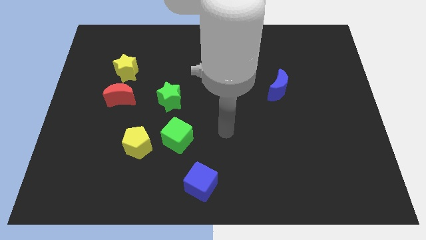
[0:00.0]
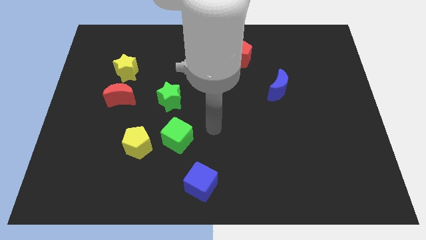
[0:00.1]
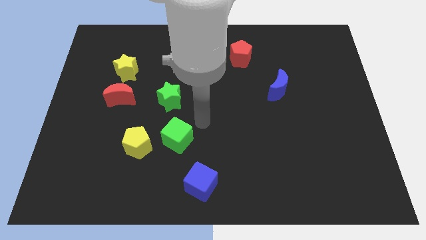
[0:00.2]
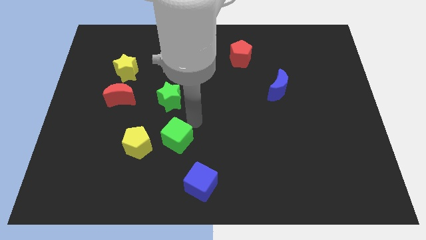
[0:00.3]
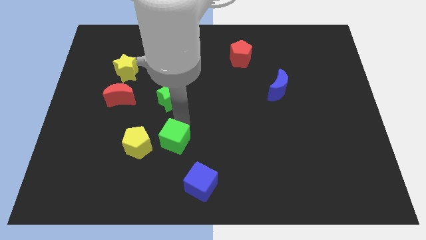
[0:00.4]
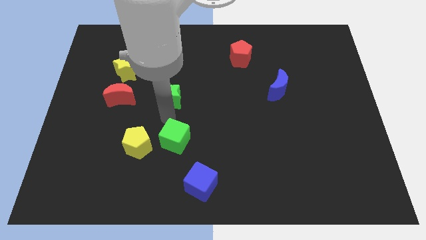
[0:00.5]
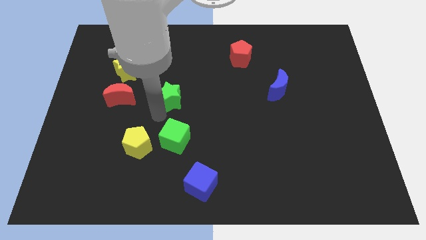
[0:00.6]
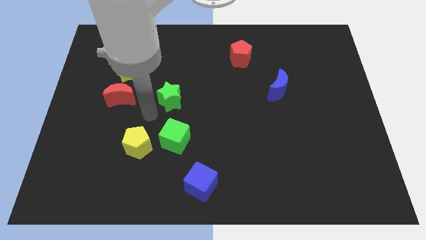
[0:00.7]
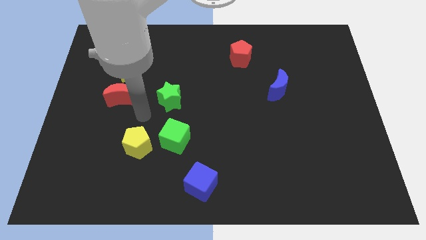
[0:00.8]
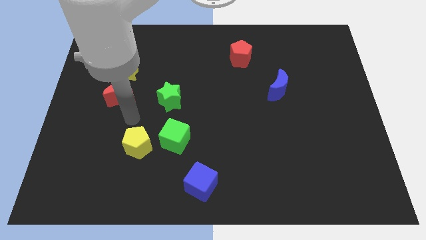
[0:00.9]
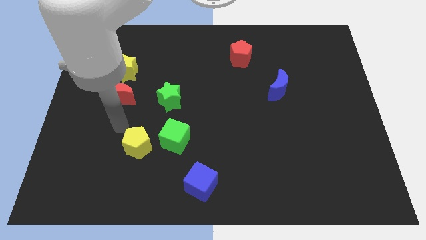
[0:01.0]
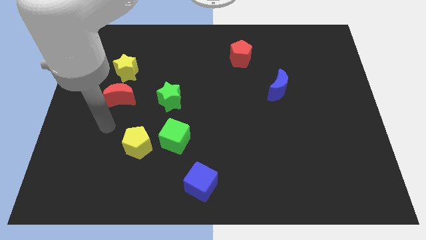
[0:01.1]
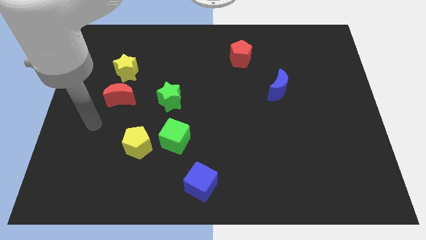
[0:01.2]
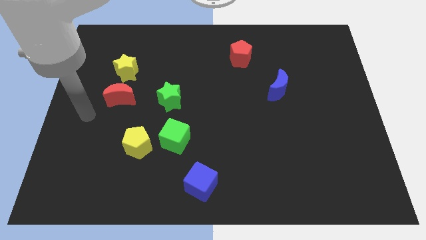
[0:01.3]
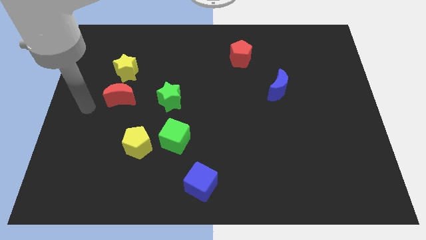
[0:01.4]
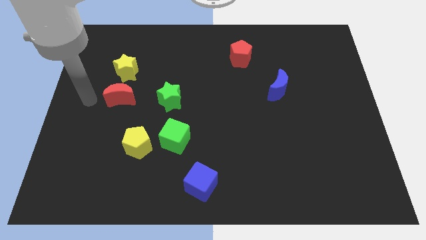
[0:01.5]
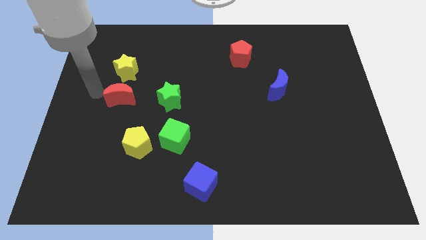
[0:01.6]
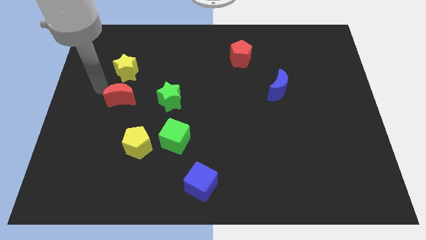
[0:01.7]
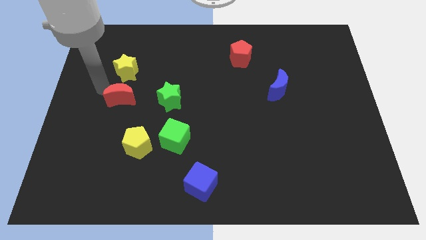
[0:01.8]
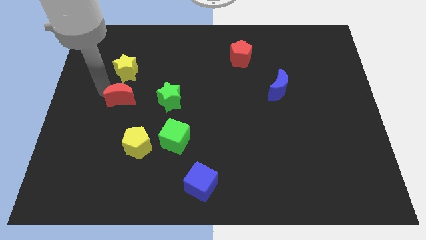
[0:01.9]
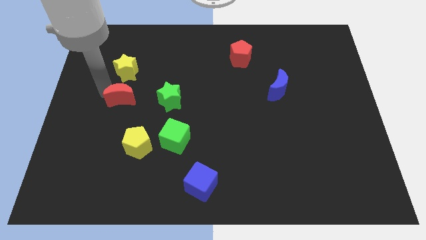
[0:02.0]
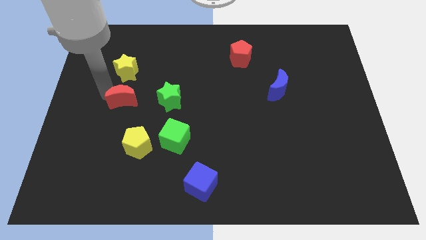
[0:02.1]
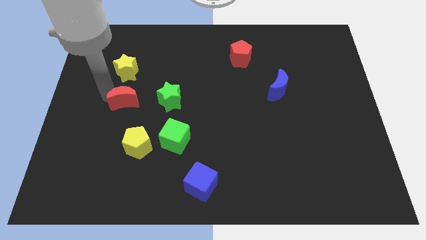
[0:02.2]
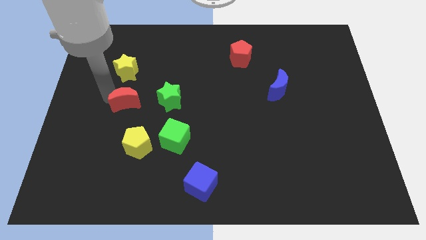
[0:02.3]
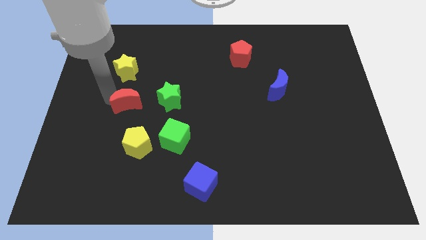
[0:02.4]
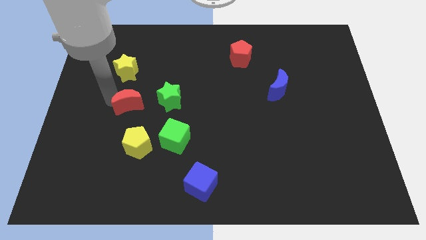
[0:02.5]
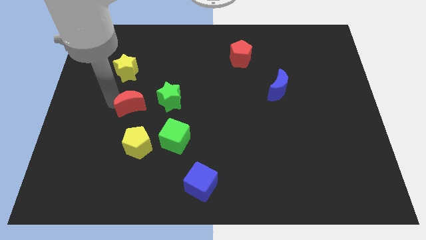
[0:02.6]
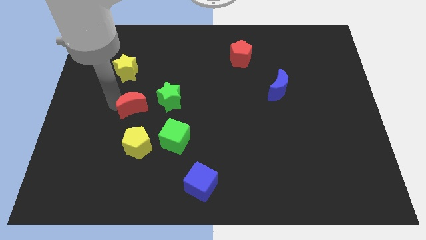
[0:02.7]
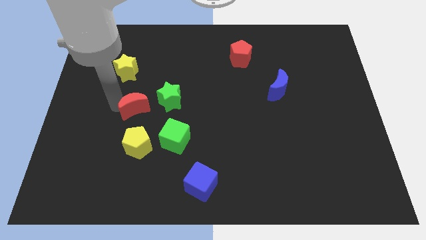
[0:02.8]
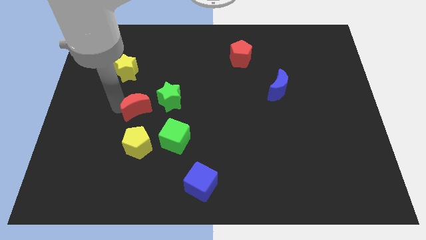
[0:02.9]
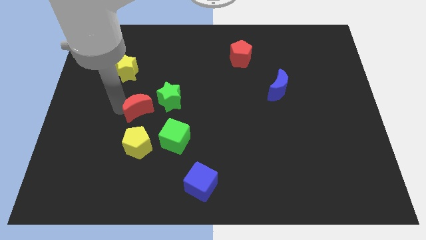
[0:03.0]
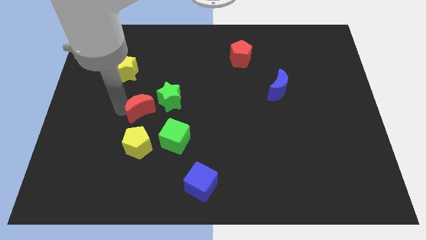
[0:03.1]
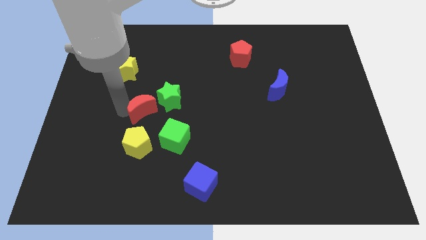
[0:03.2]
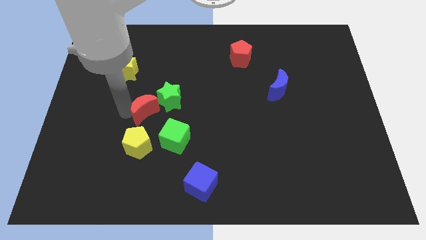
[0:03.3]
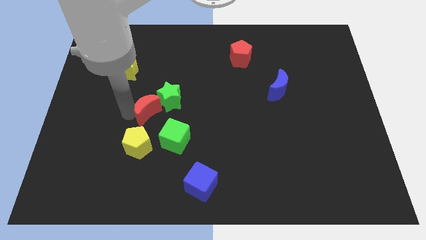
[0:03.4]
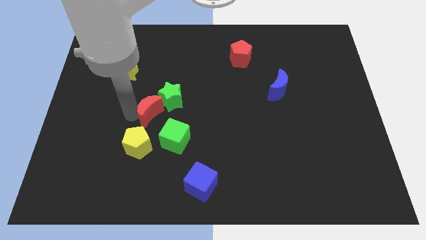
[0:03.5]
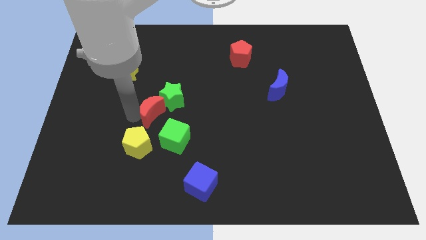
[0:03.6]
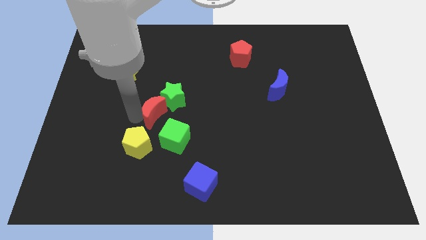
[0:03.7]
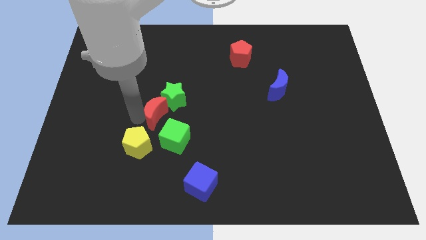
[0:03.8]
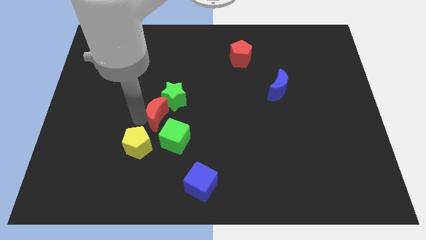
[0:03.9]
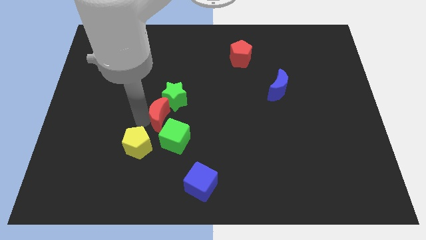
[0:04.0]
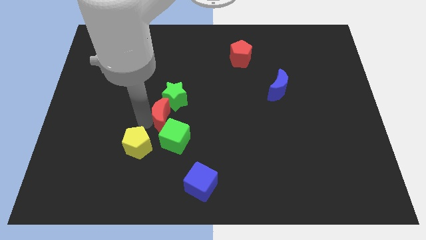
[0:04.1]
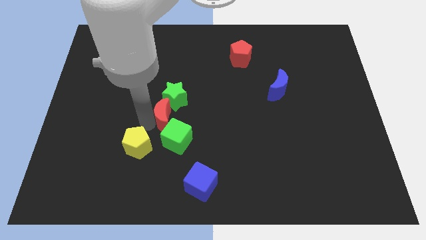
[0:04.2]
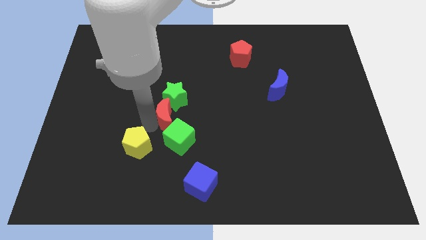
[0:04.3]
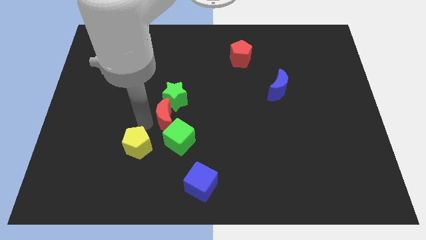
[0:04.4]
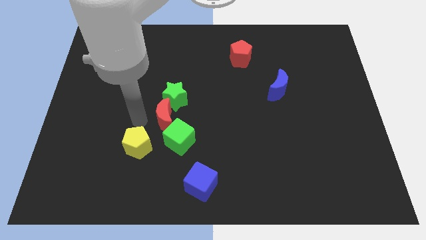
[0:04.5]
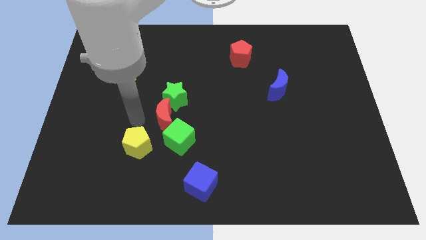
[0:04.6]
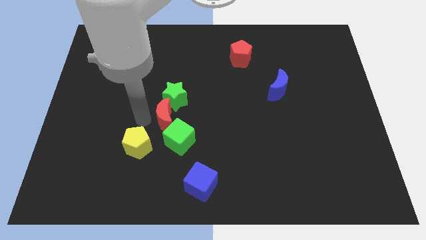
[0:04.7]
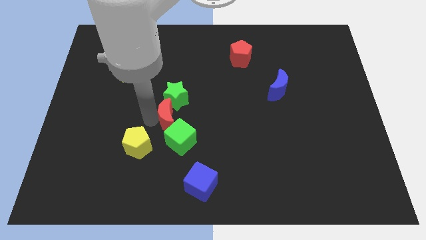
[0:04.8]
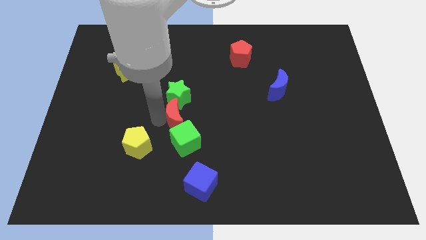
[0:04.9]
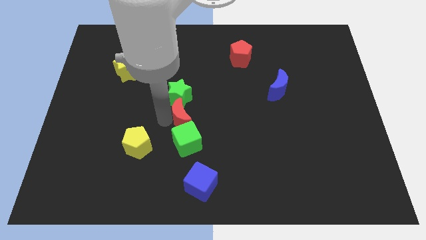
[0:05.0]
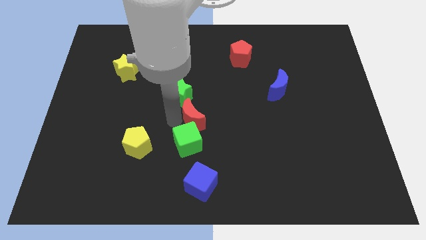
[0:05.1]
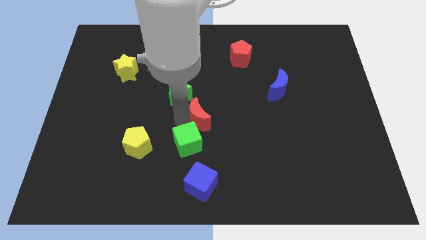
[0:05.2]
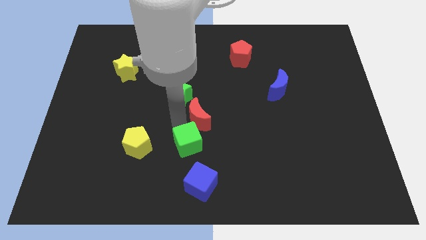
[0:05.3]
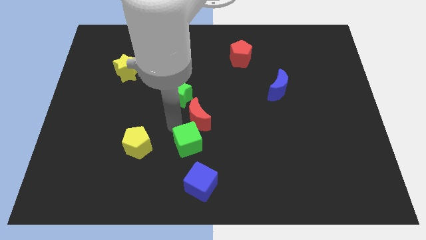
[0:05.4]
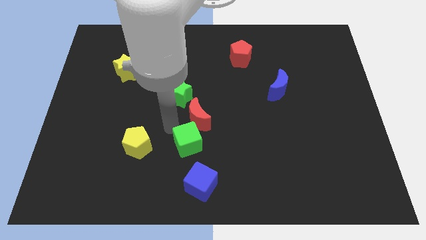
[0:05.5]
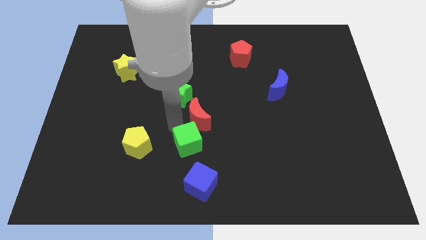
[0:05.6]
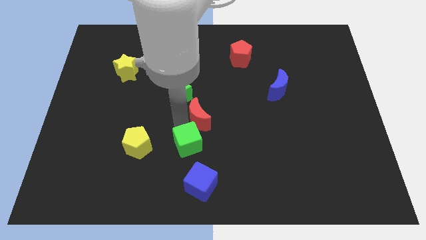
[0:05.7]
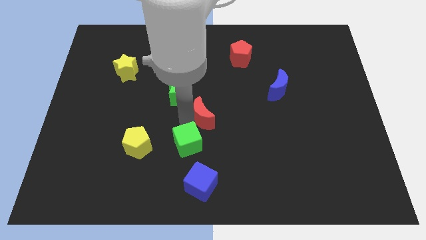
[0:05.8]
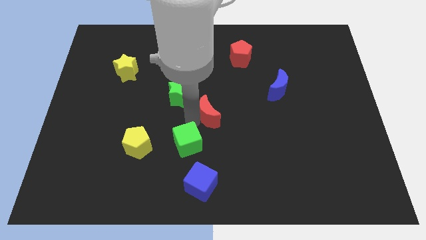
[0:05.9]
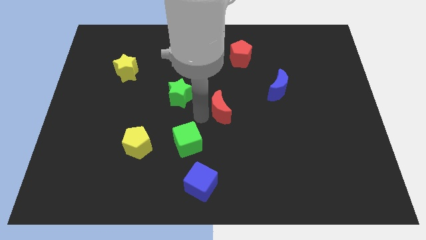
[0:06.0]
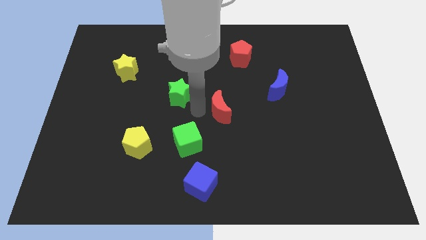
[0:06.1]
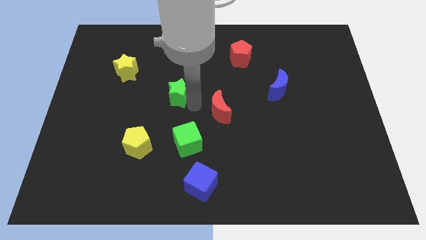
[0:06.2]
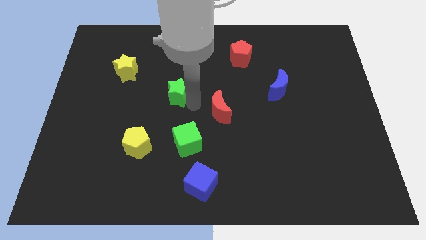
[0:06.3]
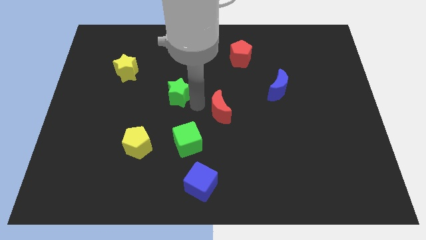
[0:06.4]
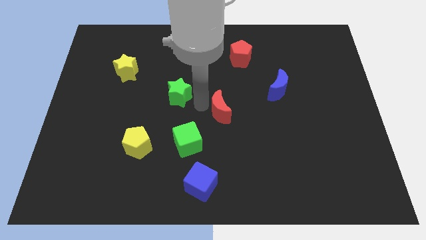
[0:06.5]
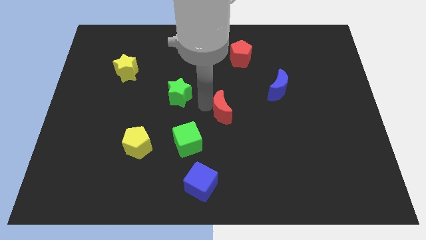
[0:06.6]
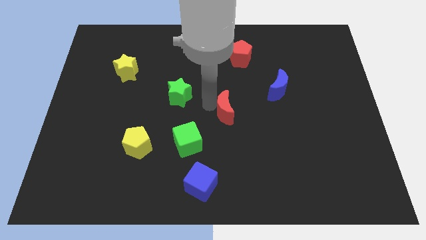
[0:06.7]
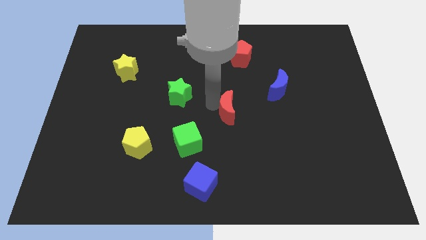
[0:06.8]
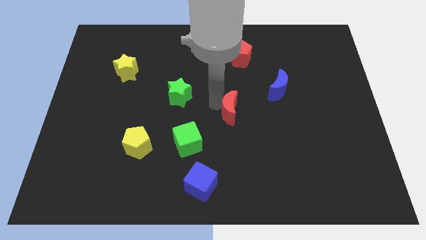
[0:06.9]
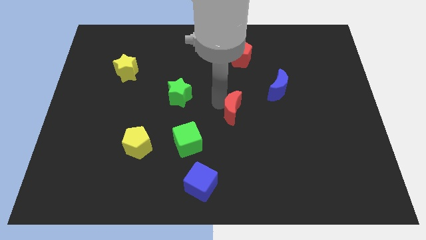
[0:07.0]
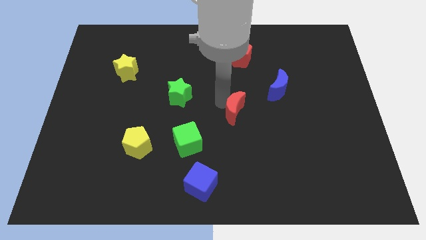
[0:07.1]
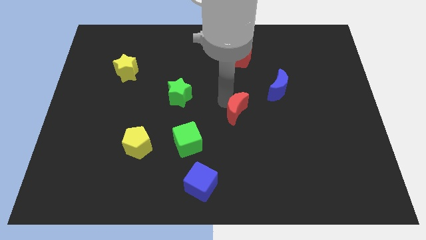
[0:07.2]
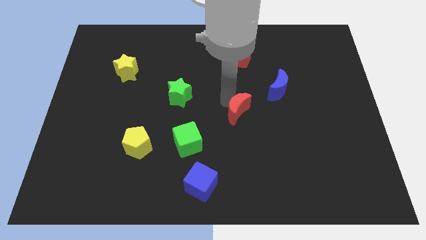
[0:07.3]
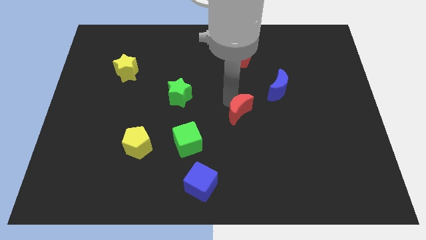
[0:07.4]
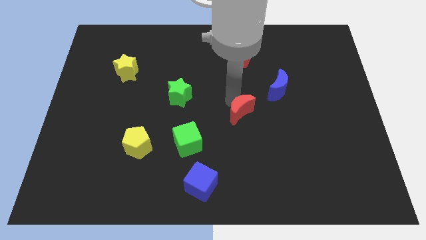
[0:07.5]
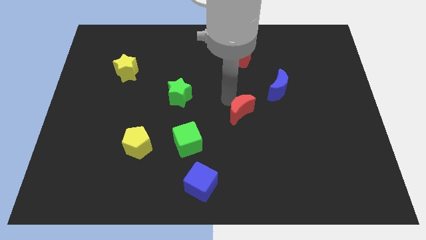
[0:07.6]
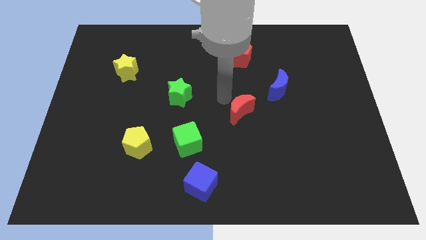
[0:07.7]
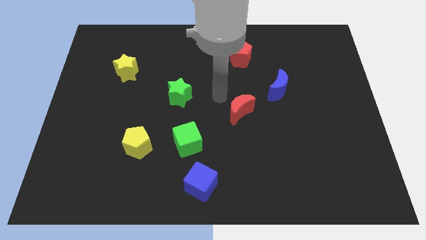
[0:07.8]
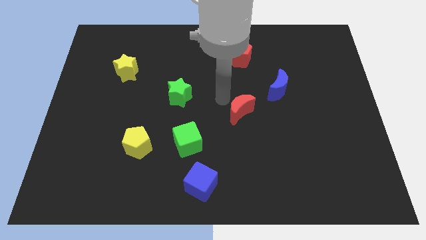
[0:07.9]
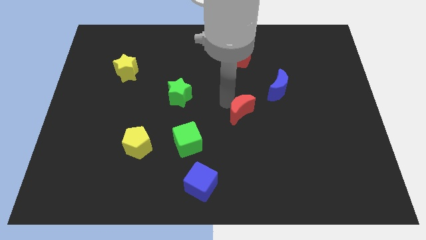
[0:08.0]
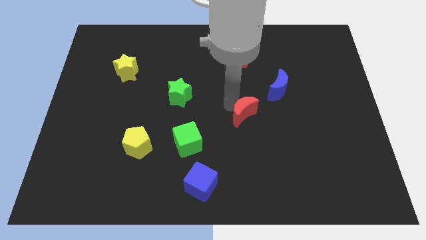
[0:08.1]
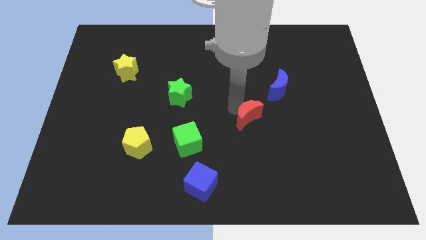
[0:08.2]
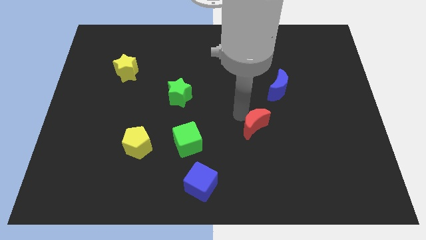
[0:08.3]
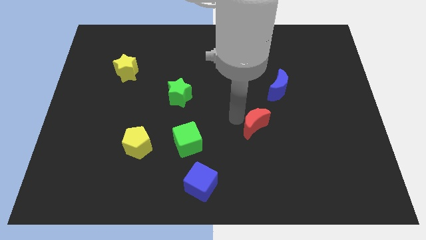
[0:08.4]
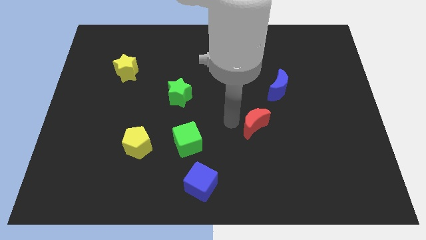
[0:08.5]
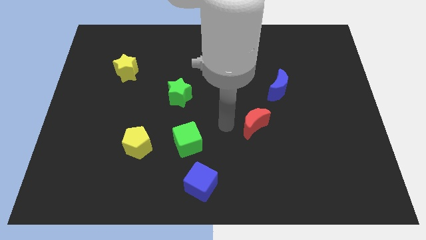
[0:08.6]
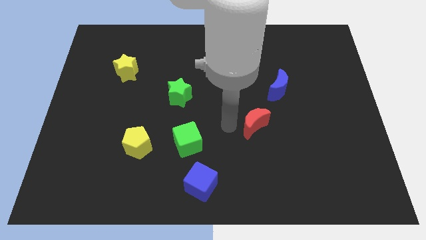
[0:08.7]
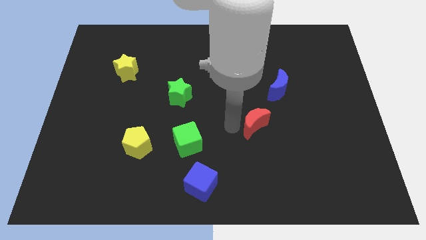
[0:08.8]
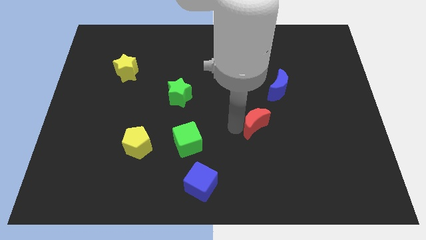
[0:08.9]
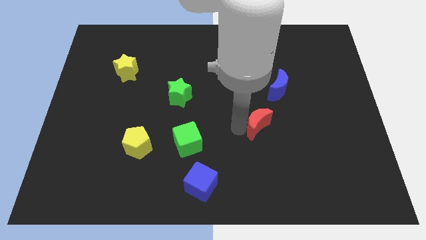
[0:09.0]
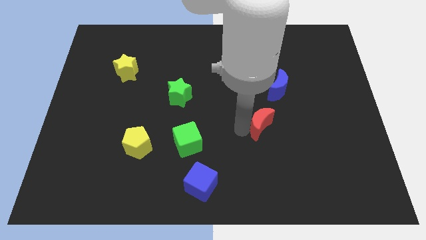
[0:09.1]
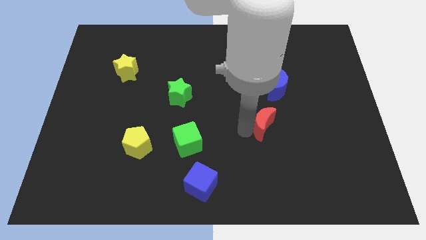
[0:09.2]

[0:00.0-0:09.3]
move the red moon to the bottom side of the blue moon
